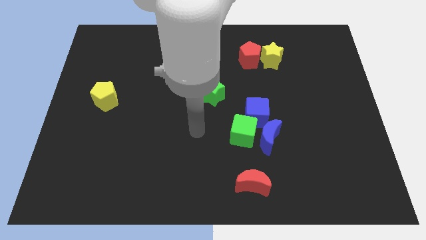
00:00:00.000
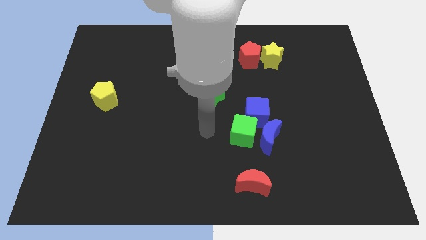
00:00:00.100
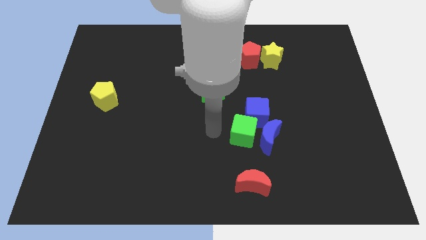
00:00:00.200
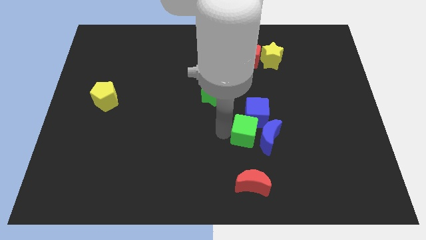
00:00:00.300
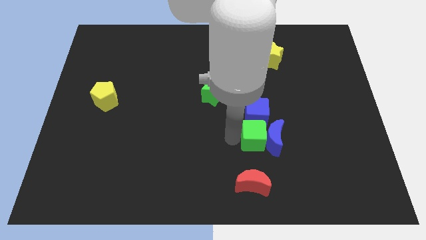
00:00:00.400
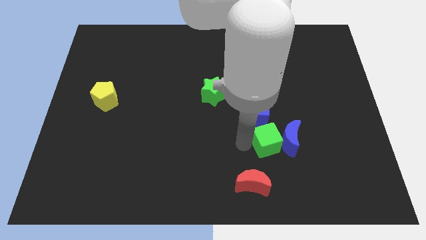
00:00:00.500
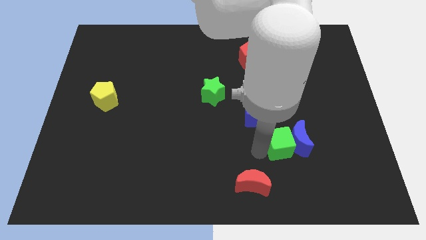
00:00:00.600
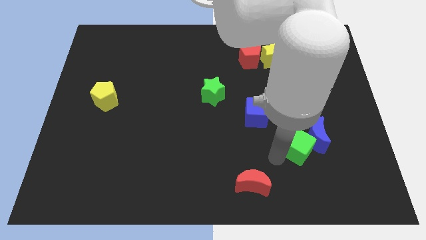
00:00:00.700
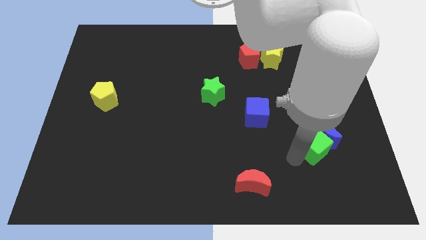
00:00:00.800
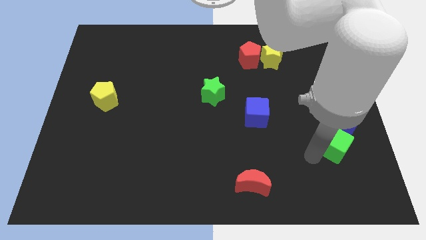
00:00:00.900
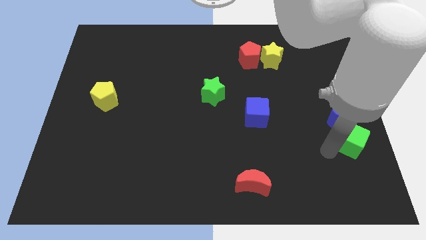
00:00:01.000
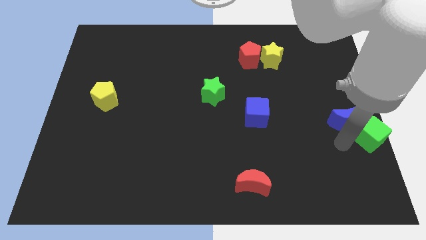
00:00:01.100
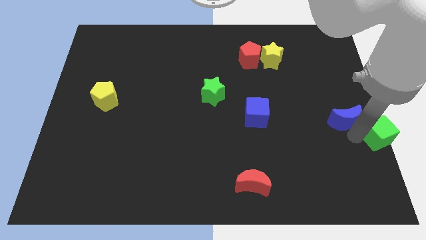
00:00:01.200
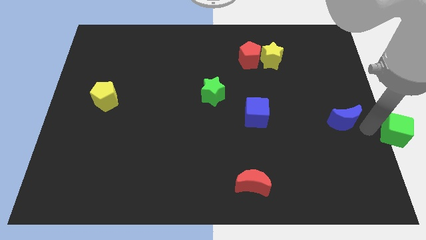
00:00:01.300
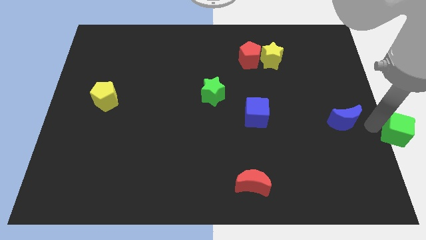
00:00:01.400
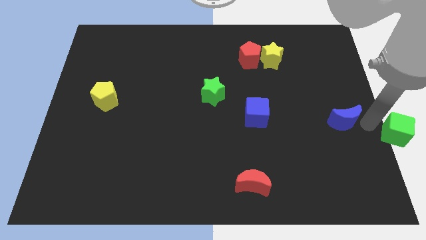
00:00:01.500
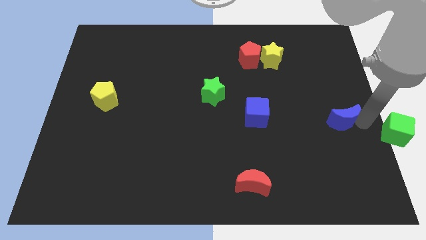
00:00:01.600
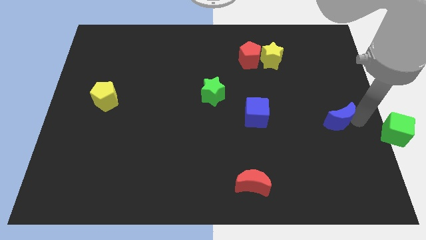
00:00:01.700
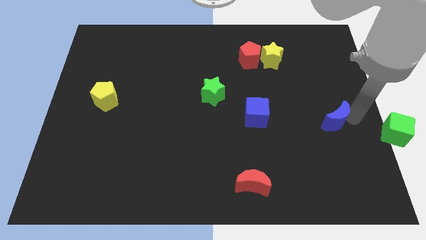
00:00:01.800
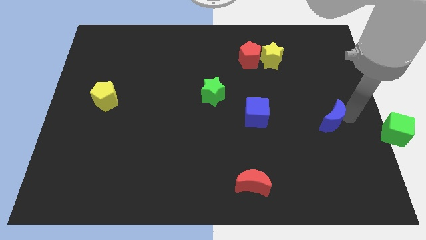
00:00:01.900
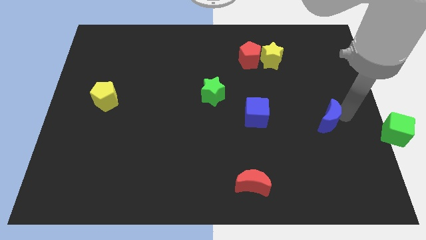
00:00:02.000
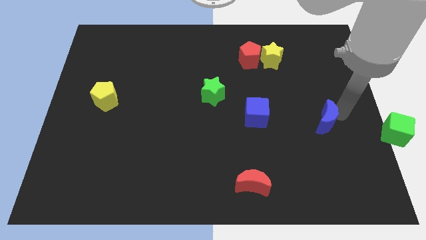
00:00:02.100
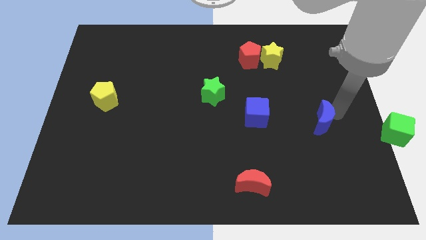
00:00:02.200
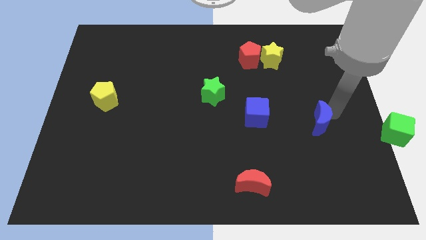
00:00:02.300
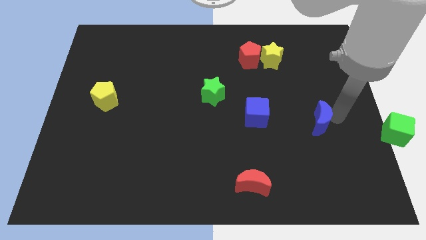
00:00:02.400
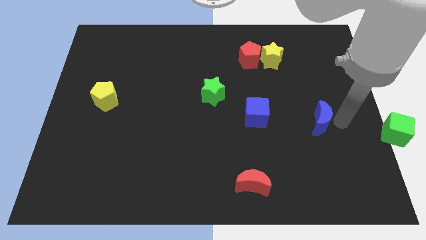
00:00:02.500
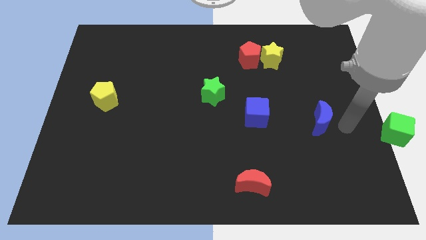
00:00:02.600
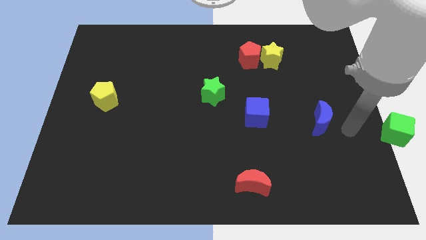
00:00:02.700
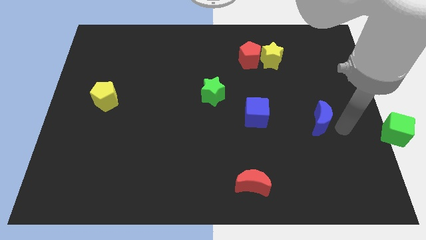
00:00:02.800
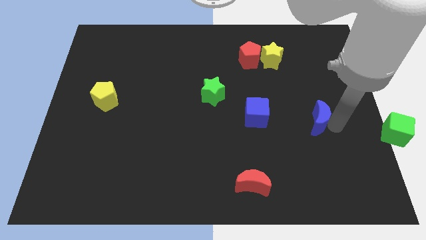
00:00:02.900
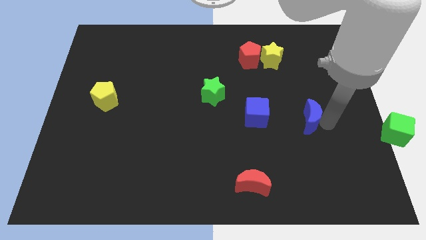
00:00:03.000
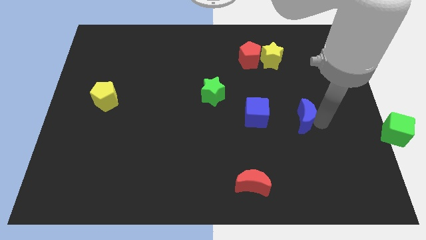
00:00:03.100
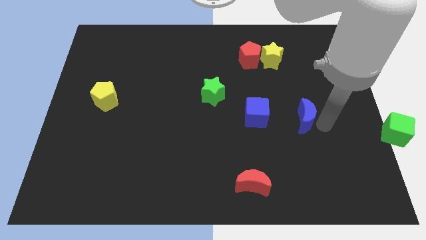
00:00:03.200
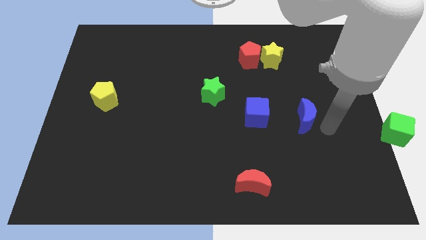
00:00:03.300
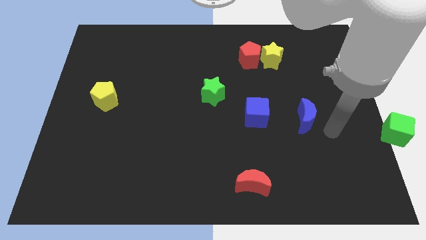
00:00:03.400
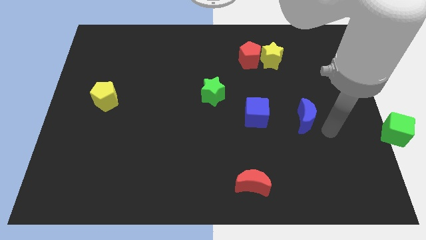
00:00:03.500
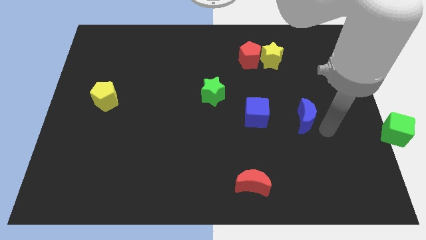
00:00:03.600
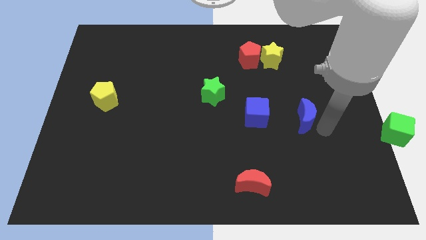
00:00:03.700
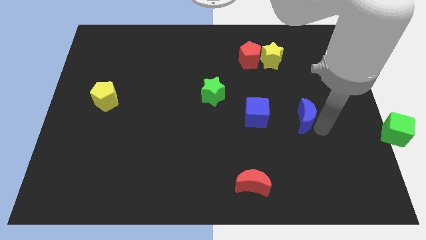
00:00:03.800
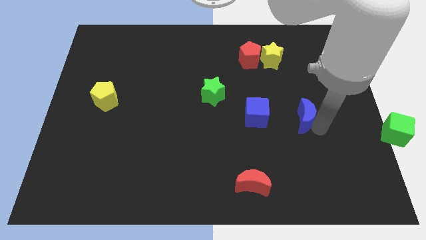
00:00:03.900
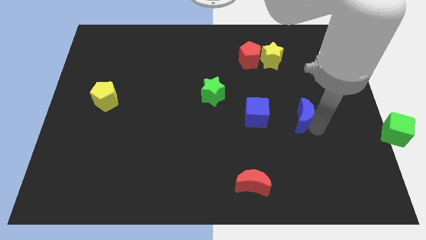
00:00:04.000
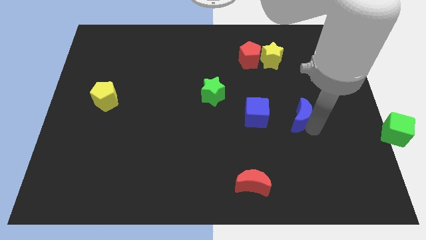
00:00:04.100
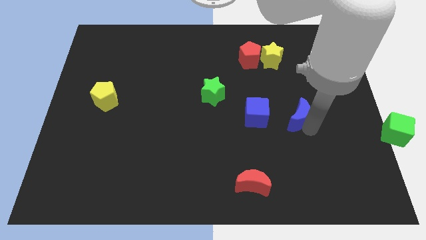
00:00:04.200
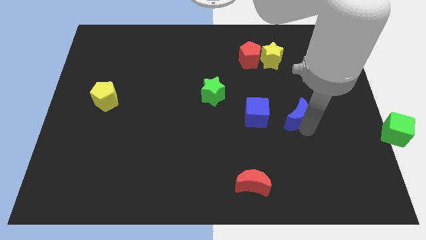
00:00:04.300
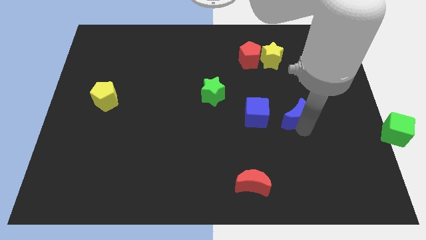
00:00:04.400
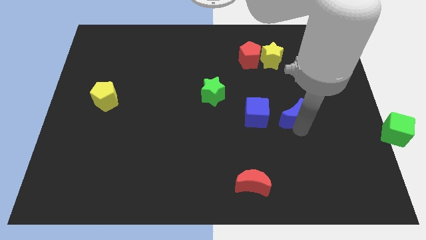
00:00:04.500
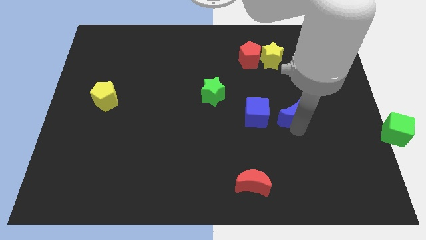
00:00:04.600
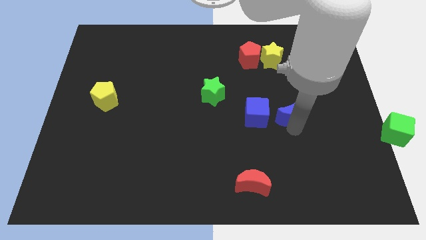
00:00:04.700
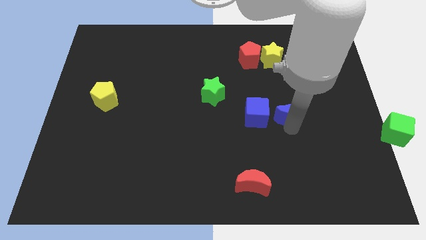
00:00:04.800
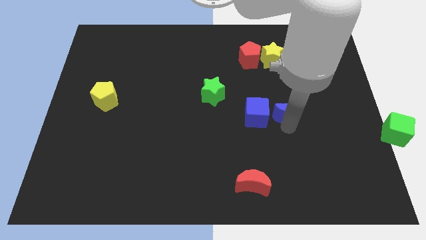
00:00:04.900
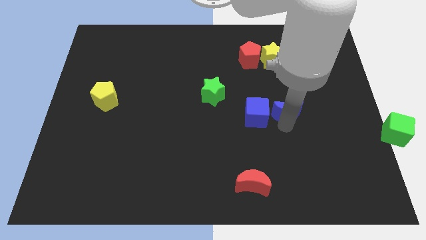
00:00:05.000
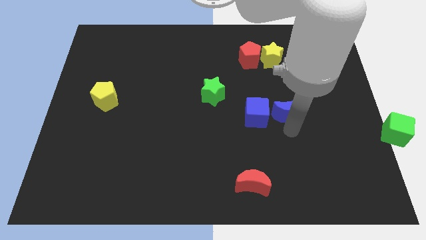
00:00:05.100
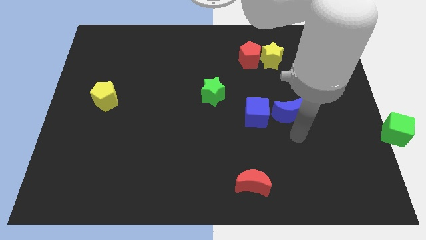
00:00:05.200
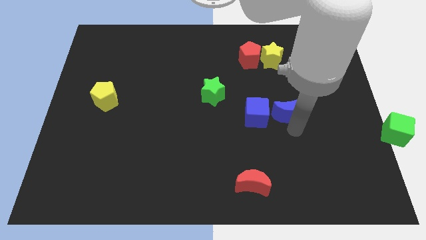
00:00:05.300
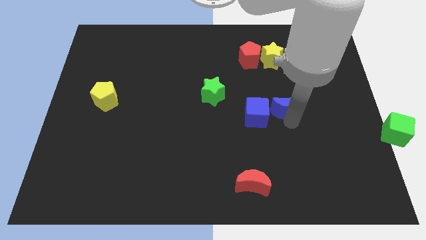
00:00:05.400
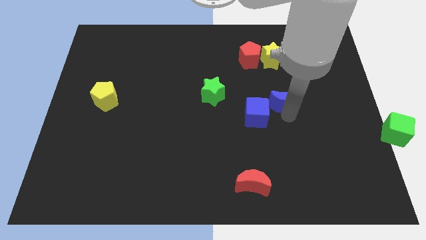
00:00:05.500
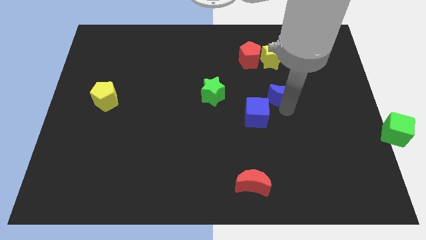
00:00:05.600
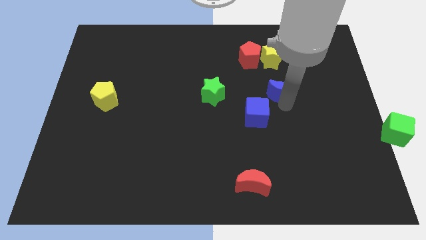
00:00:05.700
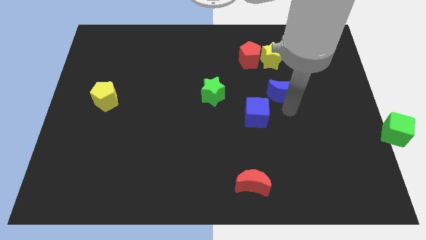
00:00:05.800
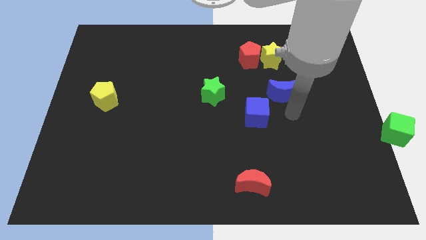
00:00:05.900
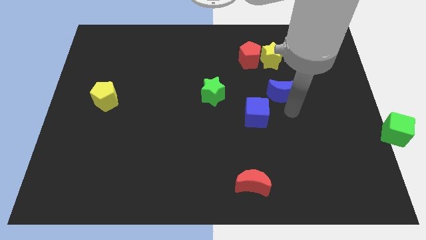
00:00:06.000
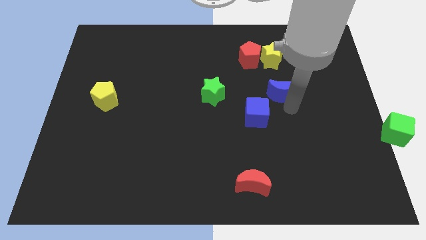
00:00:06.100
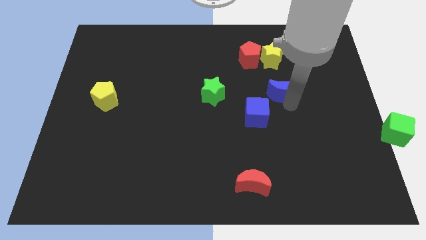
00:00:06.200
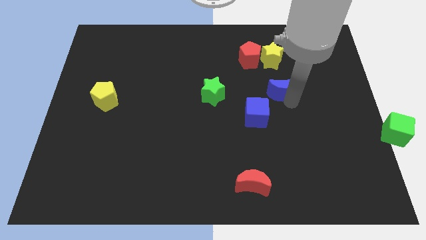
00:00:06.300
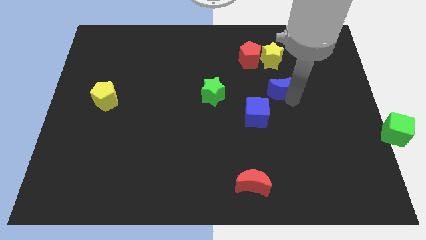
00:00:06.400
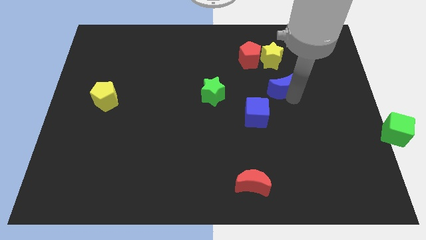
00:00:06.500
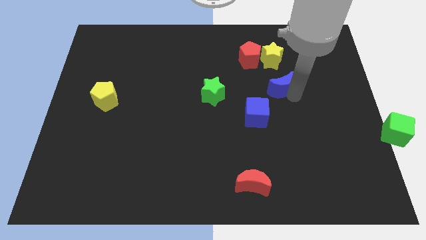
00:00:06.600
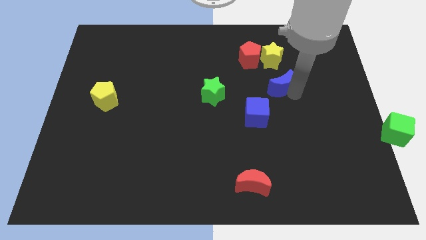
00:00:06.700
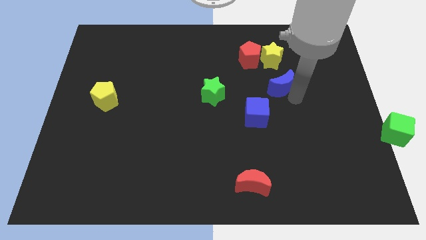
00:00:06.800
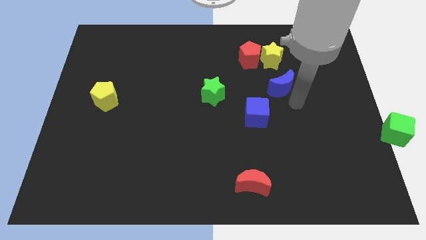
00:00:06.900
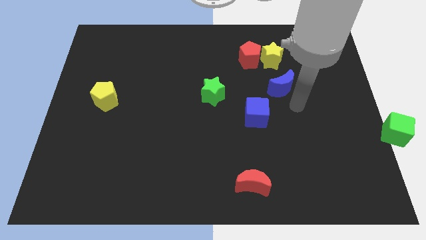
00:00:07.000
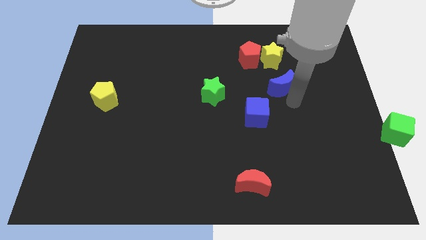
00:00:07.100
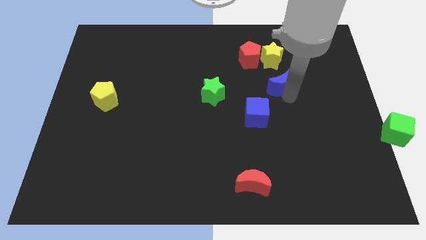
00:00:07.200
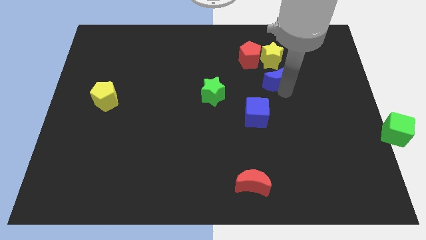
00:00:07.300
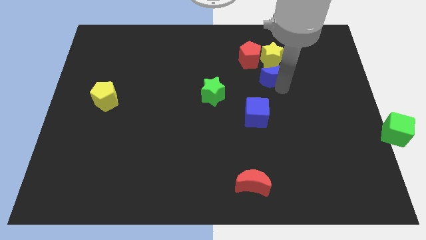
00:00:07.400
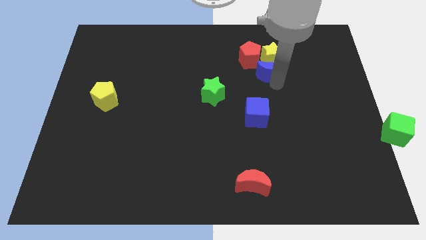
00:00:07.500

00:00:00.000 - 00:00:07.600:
move the blue moon towards the yellow star
